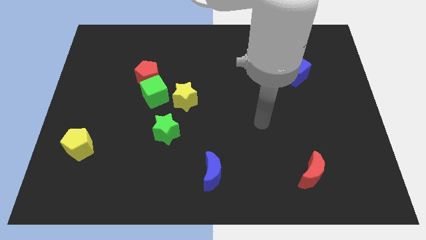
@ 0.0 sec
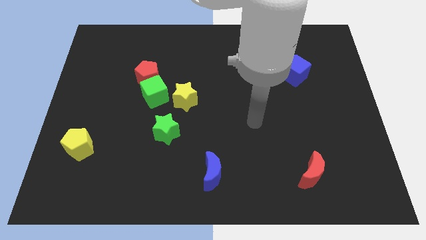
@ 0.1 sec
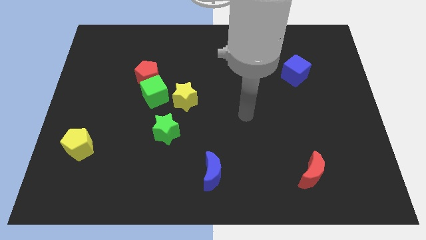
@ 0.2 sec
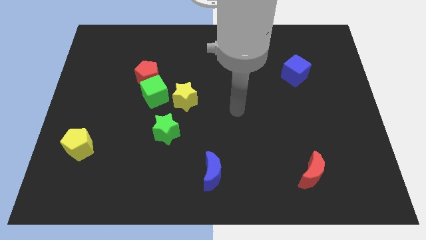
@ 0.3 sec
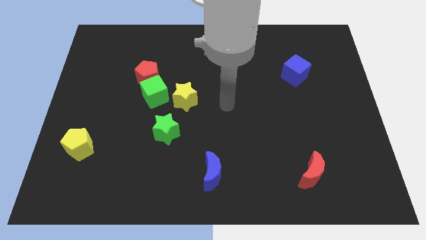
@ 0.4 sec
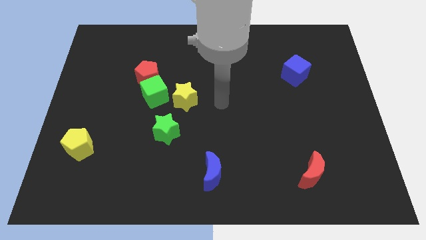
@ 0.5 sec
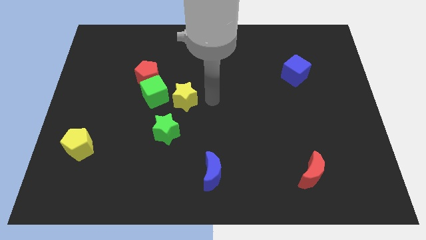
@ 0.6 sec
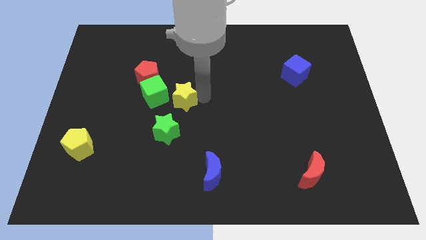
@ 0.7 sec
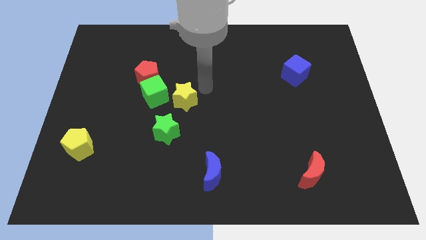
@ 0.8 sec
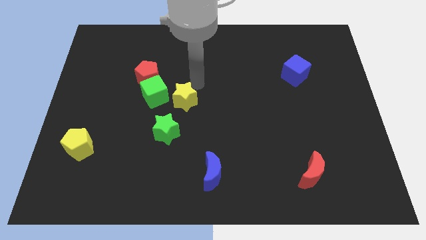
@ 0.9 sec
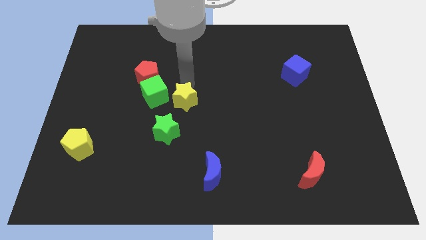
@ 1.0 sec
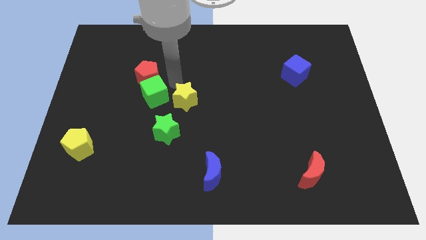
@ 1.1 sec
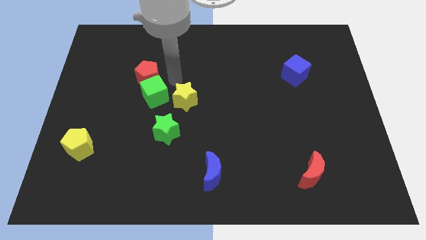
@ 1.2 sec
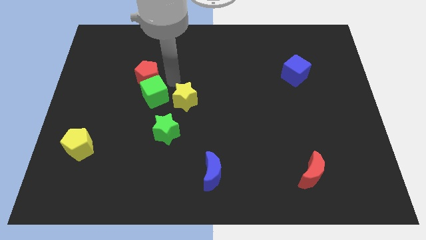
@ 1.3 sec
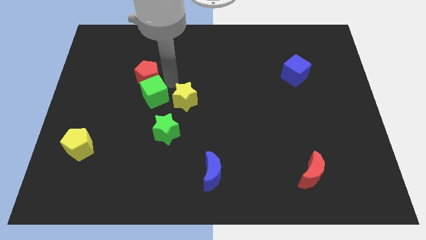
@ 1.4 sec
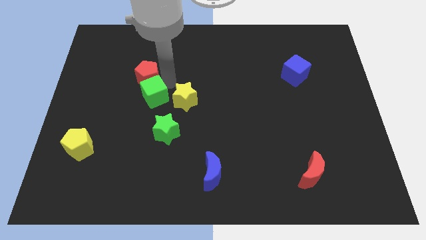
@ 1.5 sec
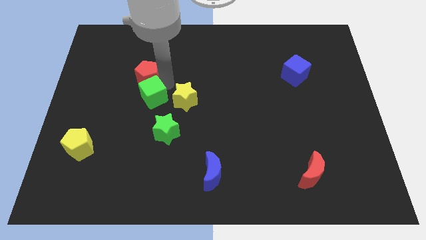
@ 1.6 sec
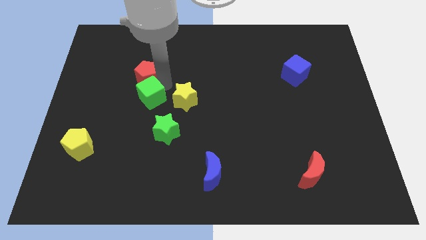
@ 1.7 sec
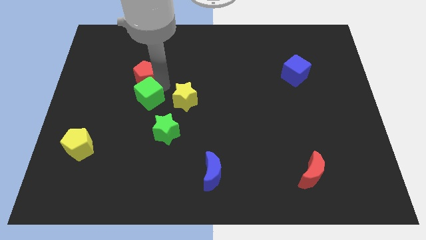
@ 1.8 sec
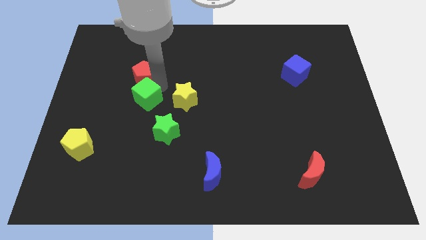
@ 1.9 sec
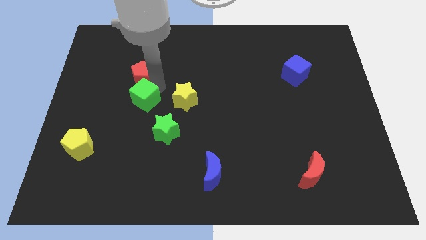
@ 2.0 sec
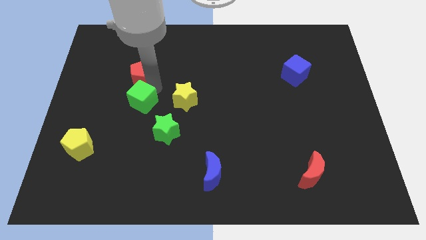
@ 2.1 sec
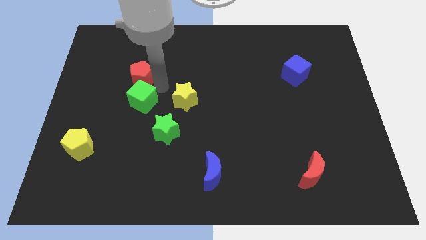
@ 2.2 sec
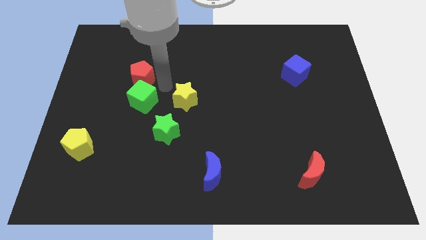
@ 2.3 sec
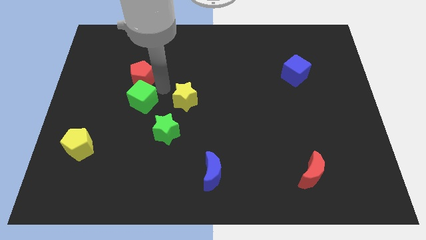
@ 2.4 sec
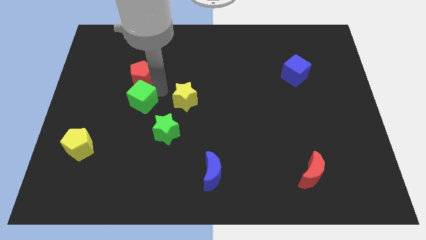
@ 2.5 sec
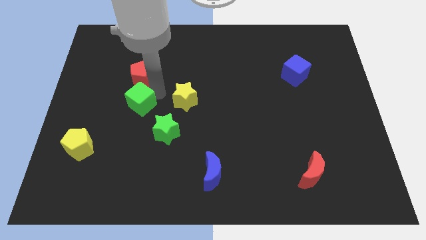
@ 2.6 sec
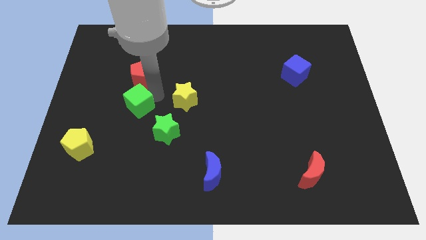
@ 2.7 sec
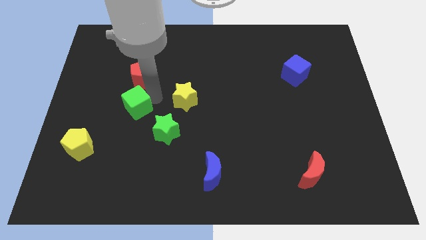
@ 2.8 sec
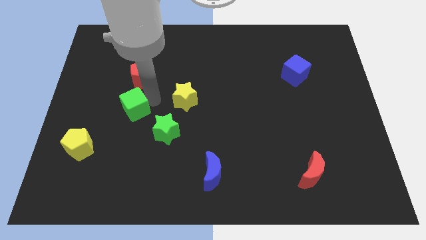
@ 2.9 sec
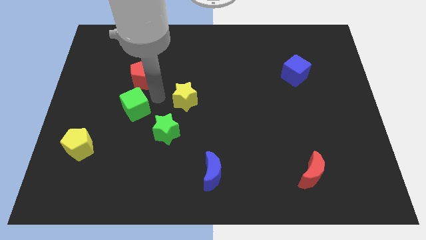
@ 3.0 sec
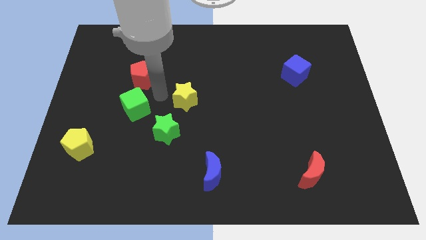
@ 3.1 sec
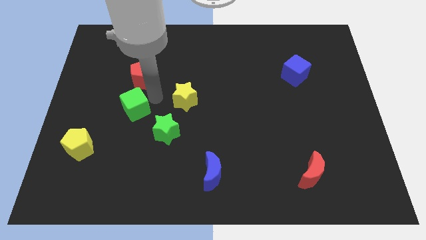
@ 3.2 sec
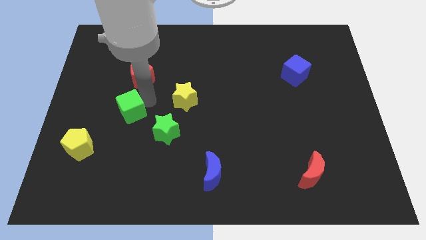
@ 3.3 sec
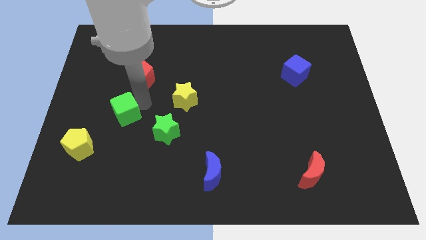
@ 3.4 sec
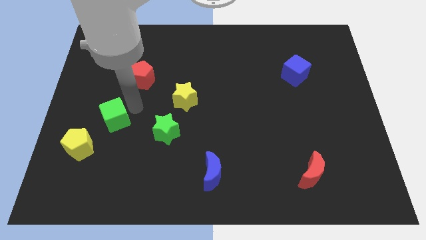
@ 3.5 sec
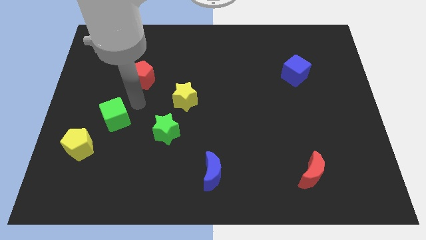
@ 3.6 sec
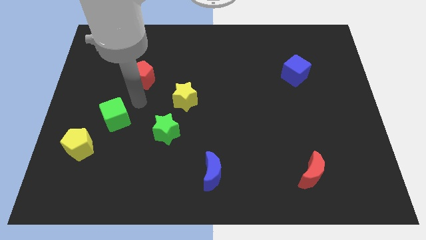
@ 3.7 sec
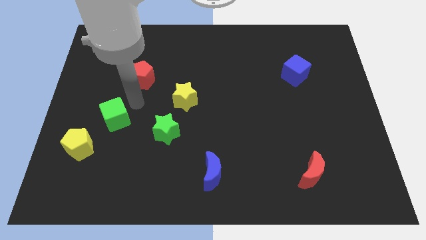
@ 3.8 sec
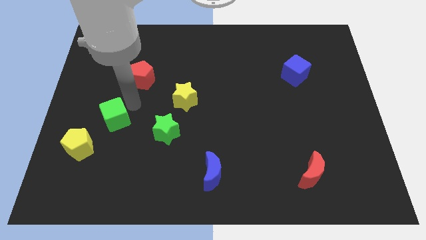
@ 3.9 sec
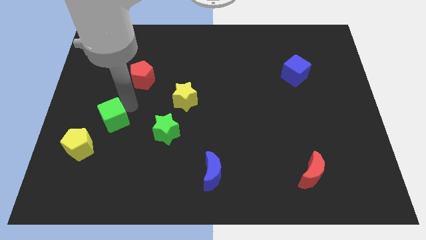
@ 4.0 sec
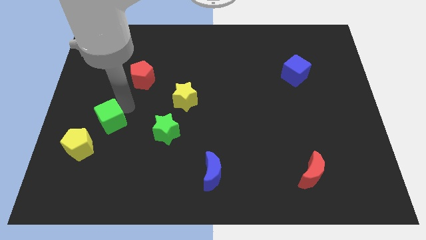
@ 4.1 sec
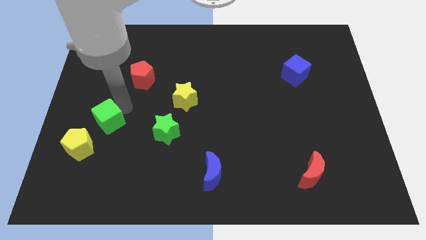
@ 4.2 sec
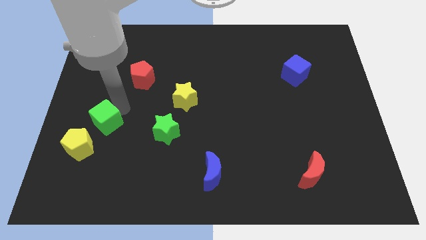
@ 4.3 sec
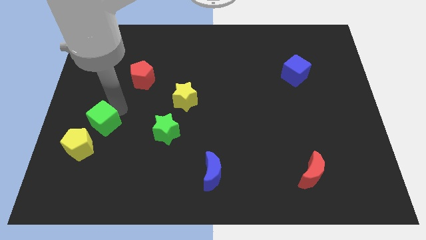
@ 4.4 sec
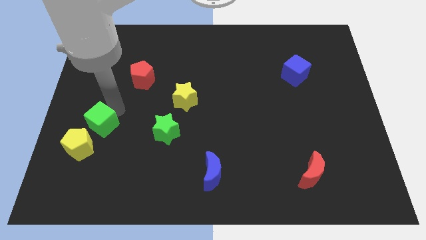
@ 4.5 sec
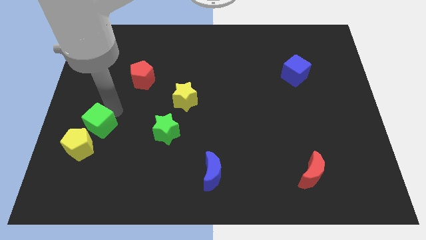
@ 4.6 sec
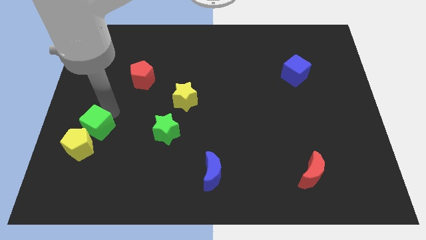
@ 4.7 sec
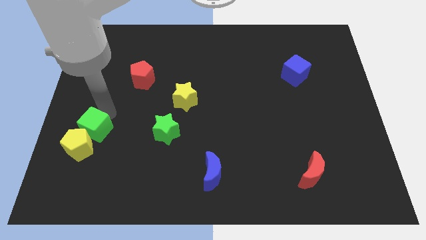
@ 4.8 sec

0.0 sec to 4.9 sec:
put the green cube to the yellow pentagon

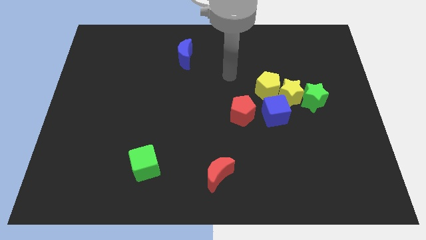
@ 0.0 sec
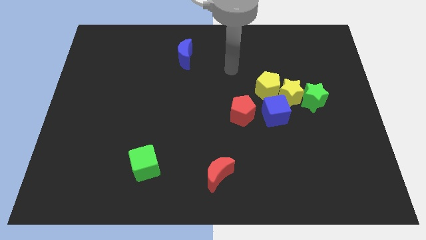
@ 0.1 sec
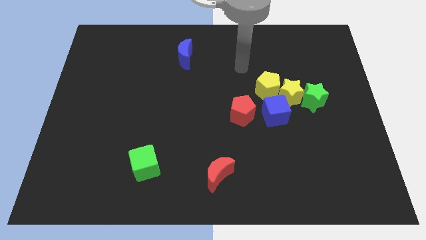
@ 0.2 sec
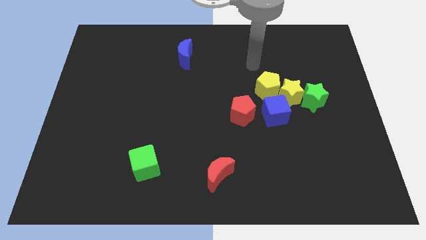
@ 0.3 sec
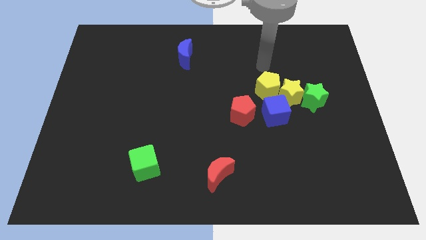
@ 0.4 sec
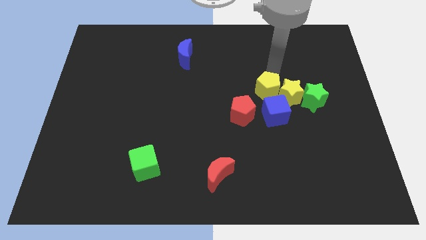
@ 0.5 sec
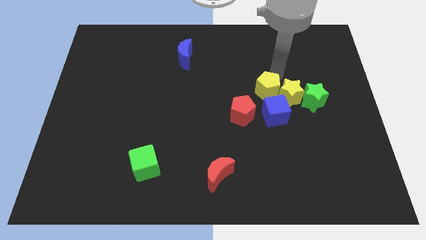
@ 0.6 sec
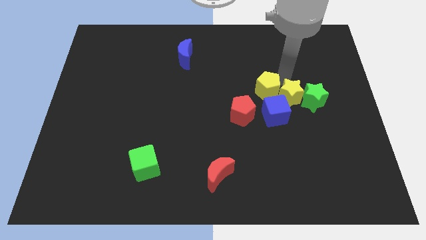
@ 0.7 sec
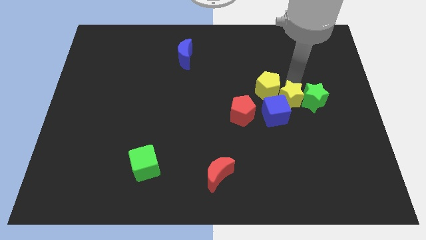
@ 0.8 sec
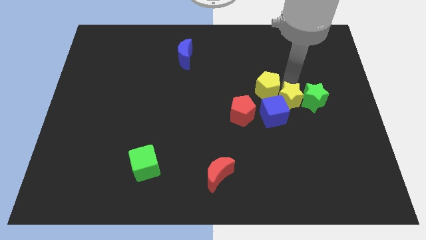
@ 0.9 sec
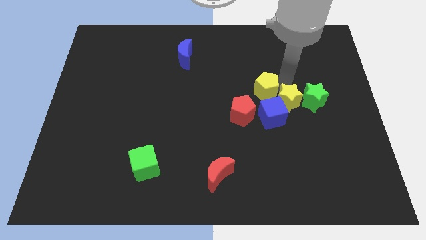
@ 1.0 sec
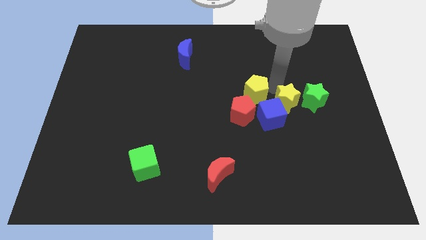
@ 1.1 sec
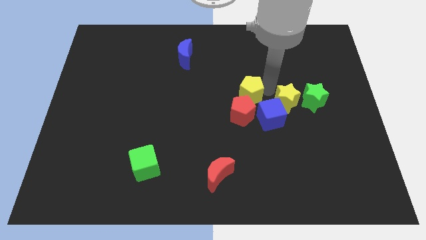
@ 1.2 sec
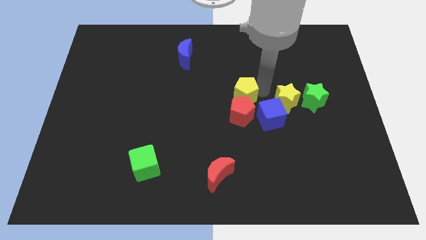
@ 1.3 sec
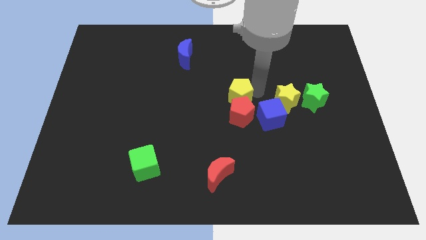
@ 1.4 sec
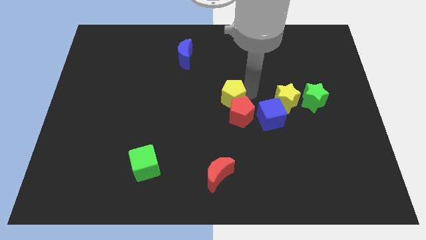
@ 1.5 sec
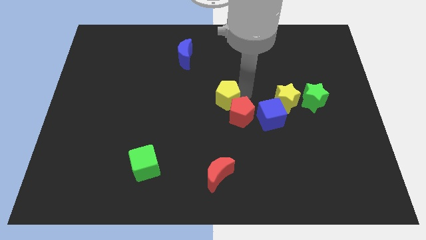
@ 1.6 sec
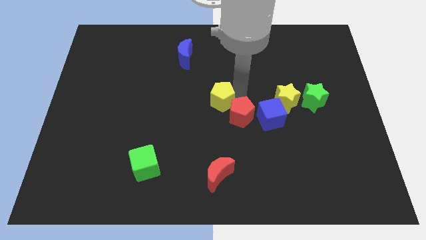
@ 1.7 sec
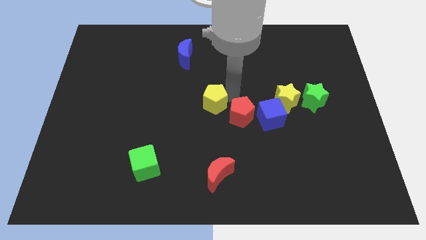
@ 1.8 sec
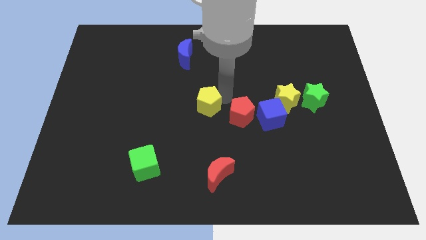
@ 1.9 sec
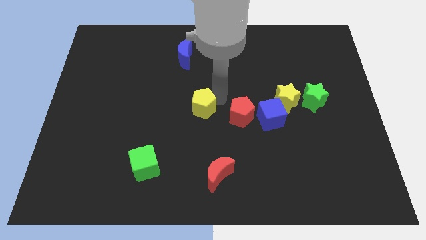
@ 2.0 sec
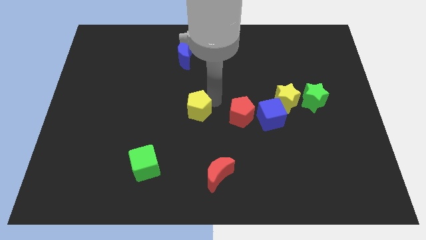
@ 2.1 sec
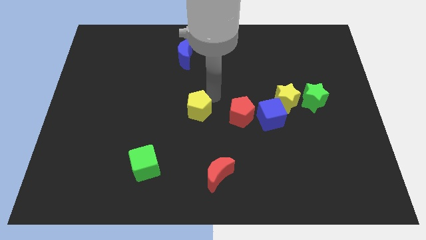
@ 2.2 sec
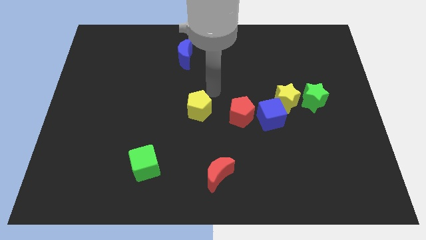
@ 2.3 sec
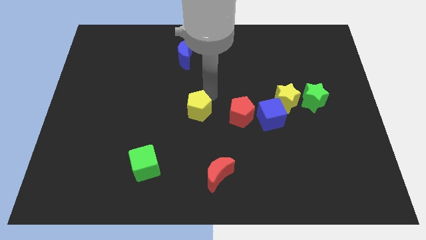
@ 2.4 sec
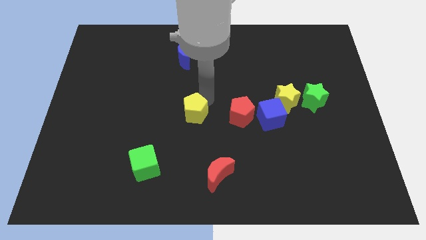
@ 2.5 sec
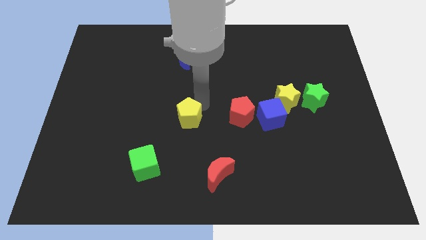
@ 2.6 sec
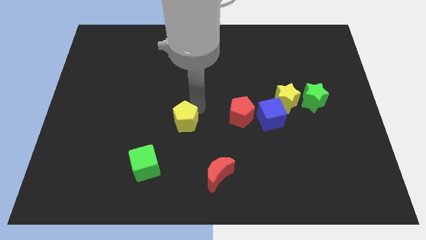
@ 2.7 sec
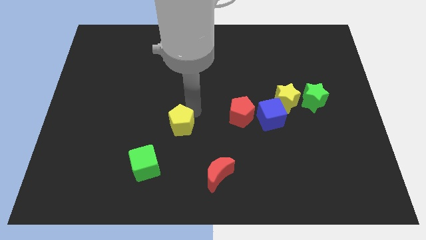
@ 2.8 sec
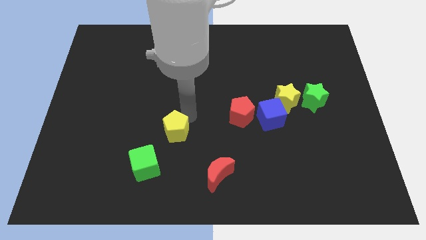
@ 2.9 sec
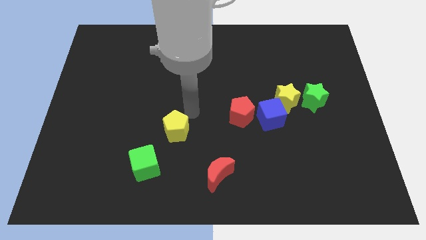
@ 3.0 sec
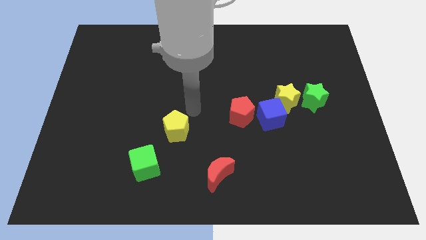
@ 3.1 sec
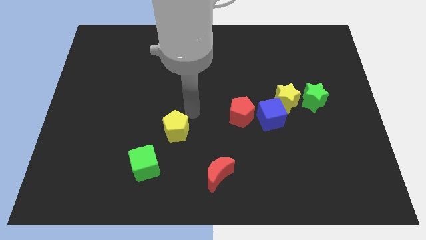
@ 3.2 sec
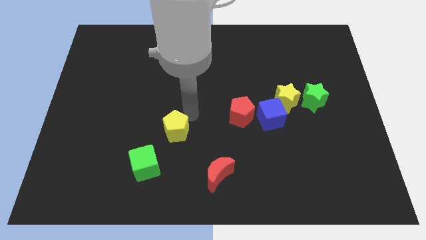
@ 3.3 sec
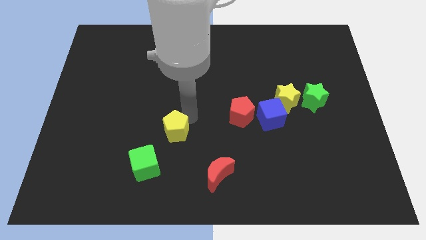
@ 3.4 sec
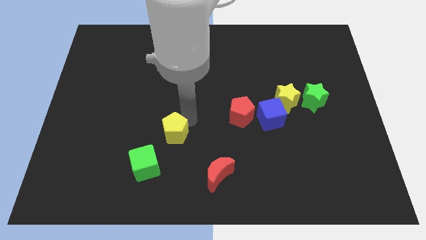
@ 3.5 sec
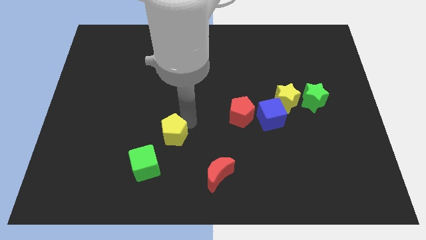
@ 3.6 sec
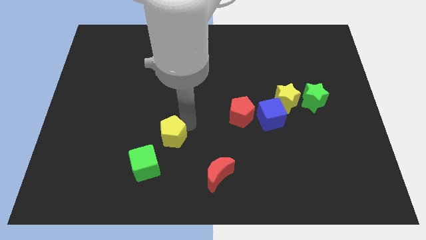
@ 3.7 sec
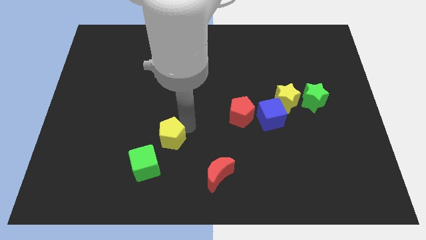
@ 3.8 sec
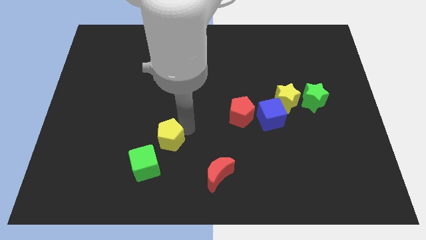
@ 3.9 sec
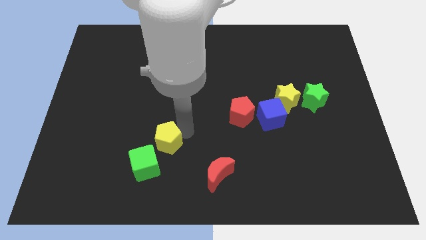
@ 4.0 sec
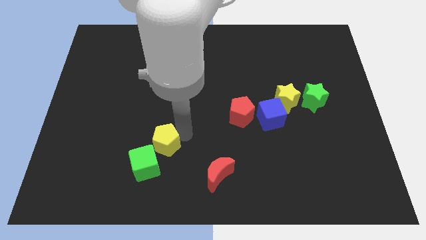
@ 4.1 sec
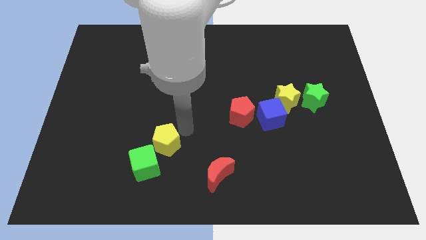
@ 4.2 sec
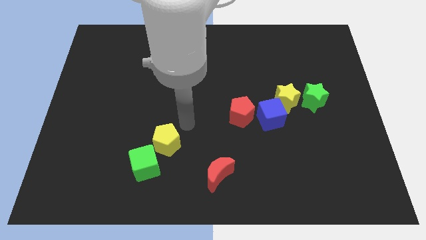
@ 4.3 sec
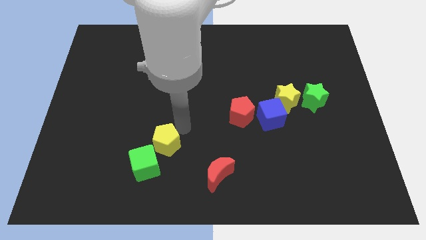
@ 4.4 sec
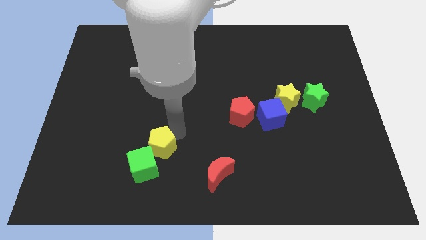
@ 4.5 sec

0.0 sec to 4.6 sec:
push the yellow pentagon towards the green cube
